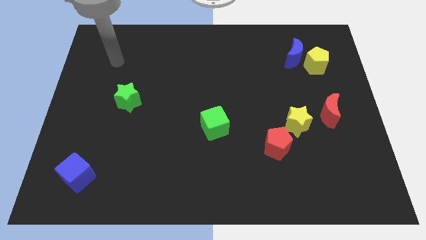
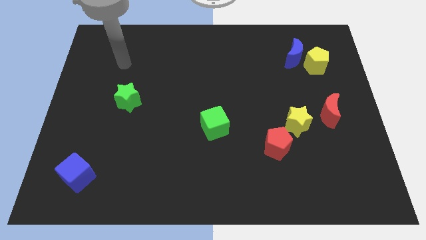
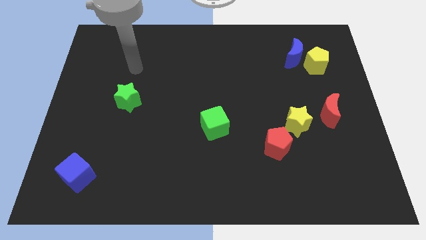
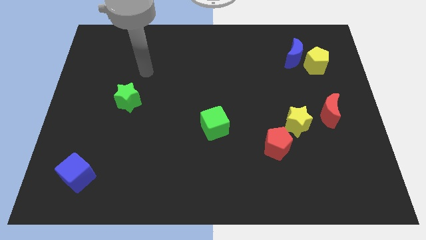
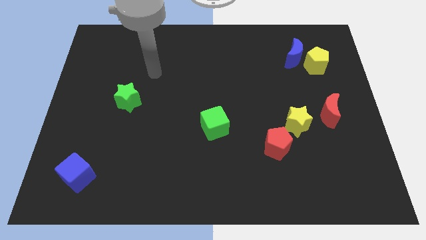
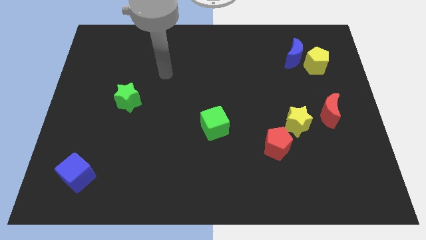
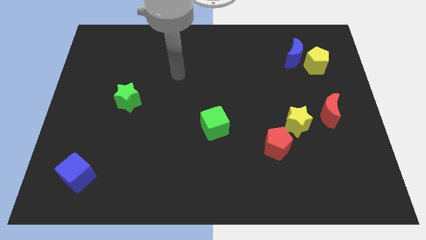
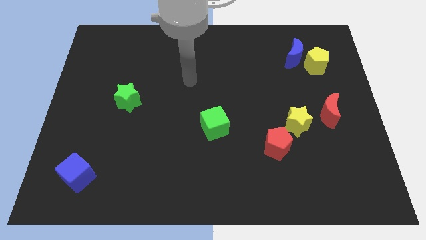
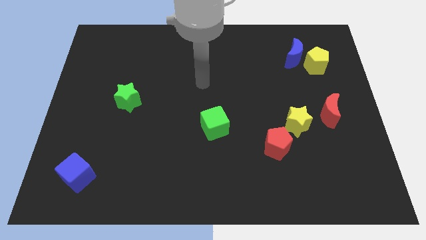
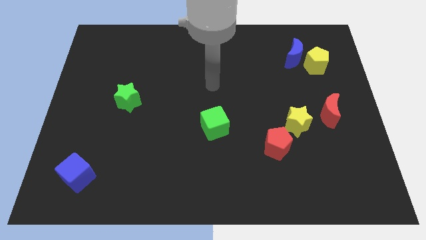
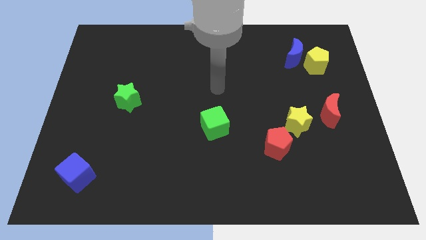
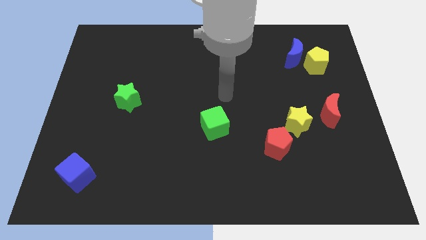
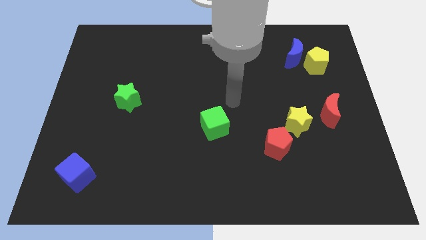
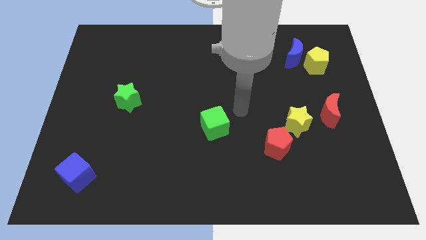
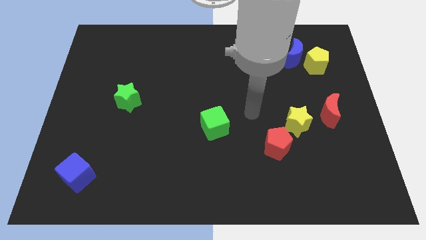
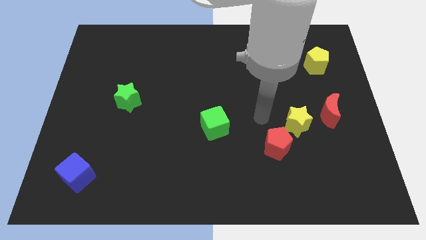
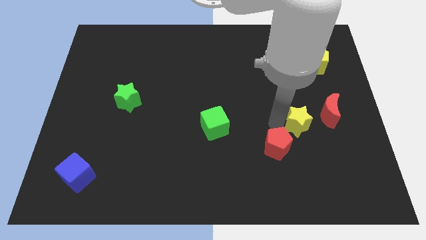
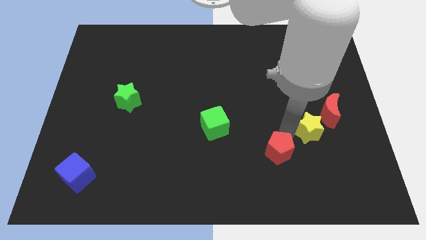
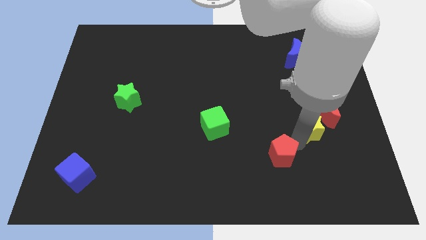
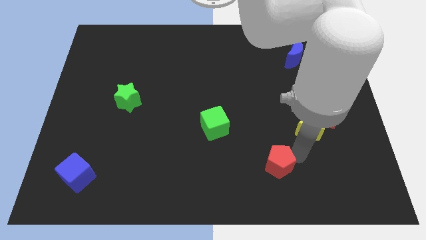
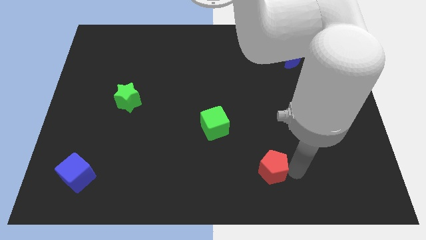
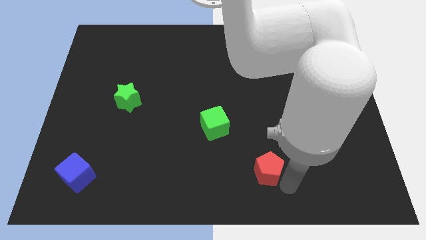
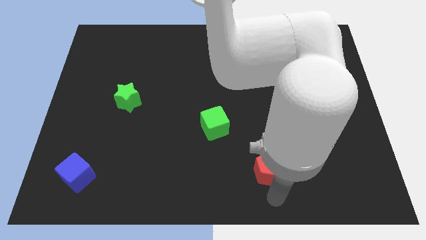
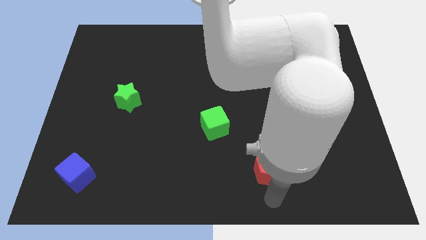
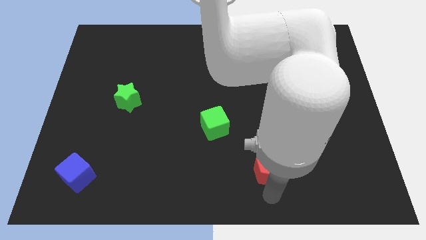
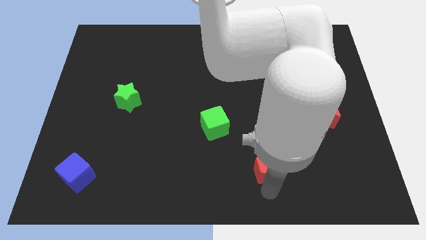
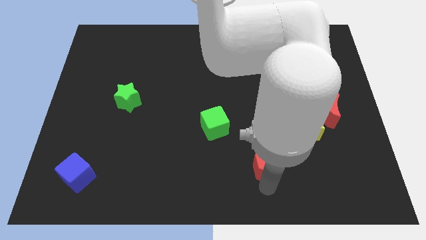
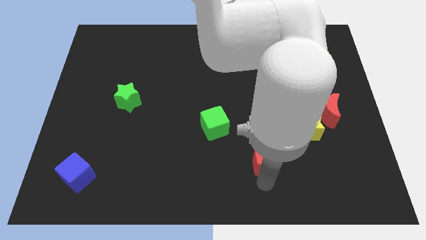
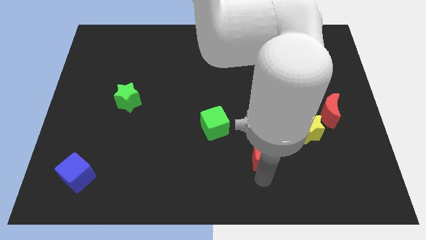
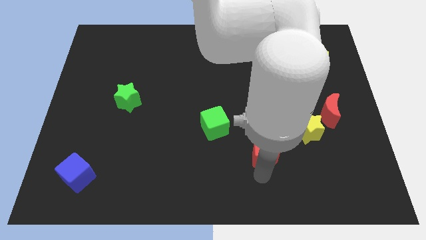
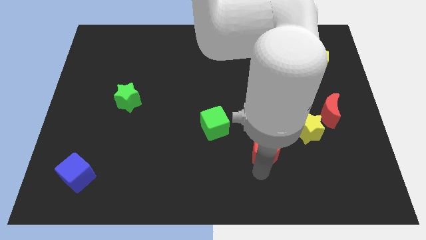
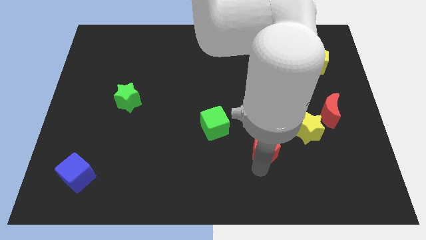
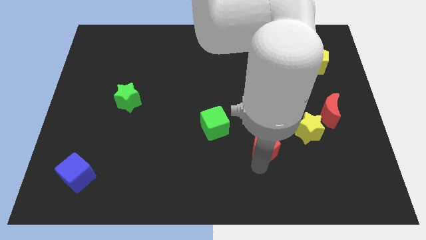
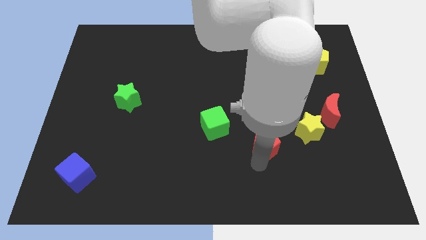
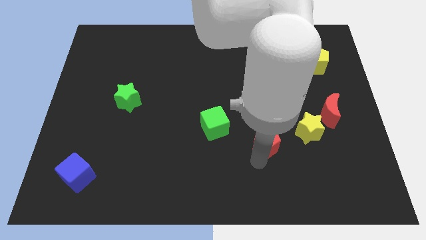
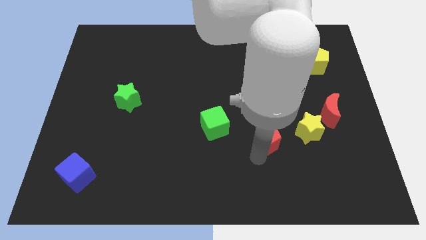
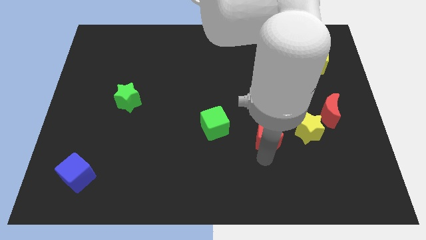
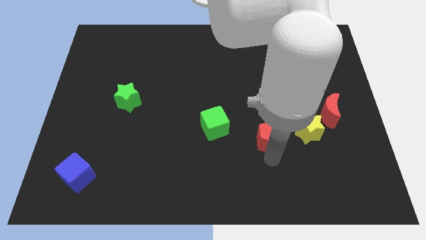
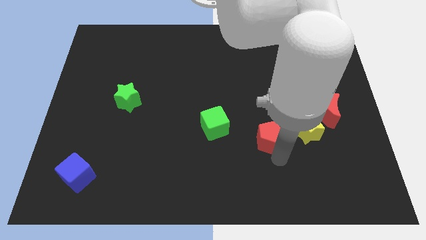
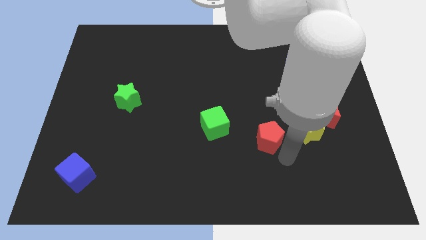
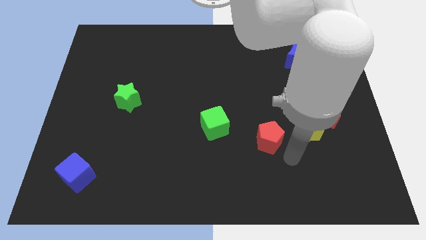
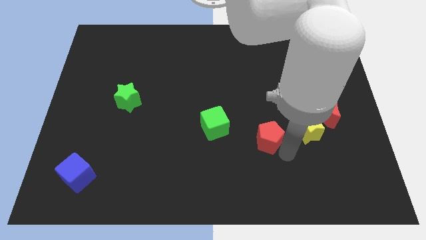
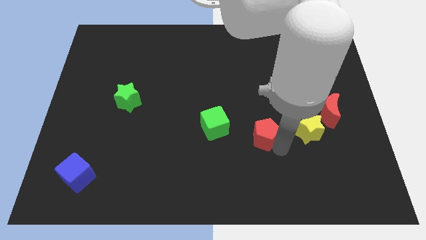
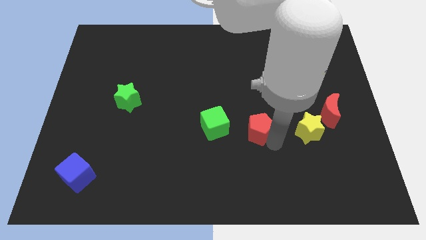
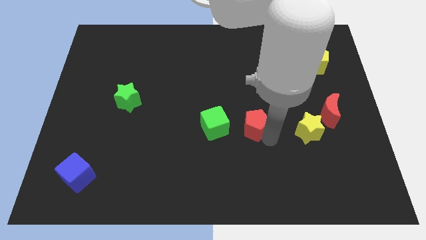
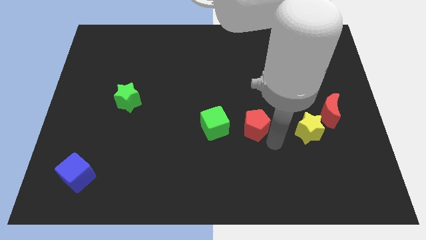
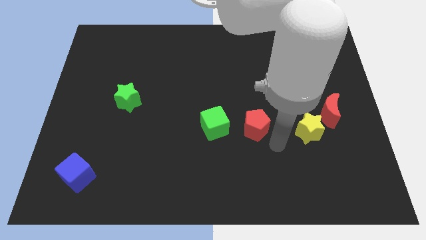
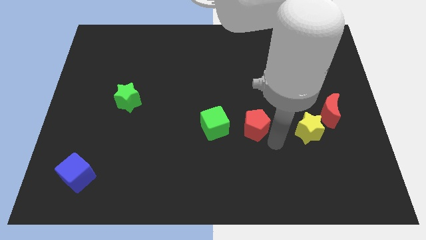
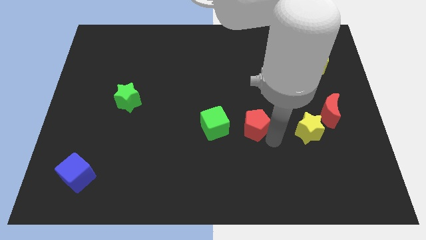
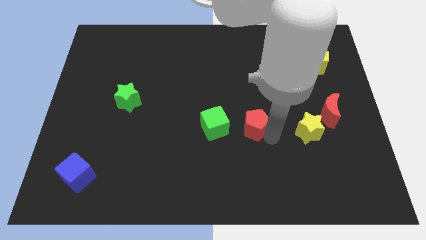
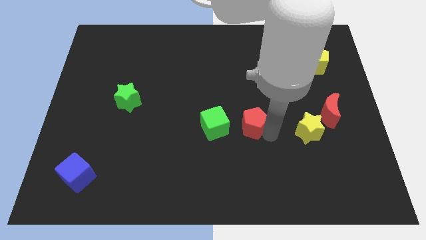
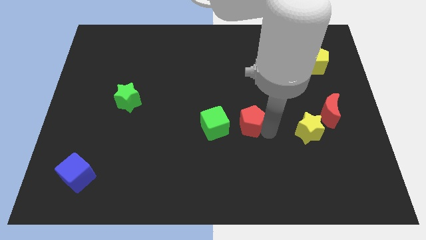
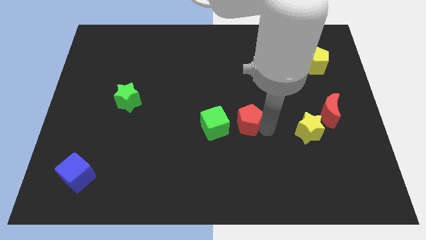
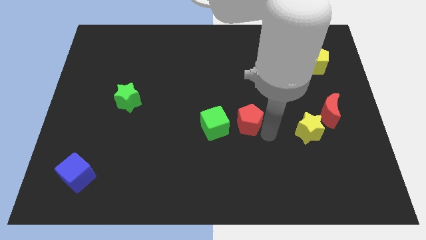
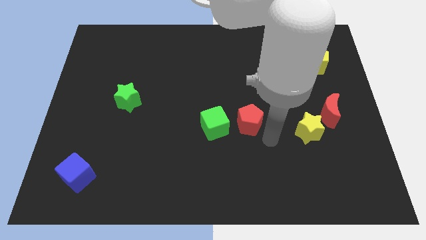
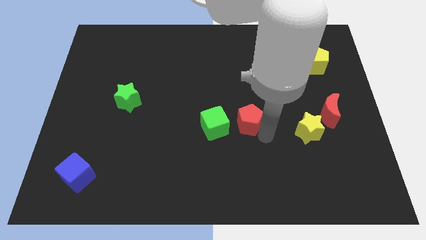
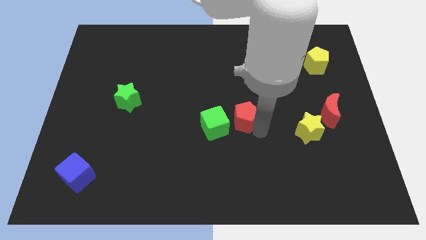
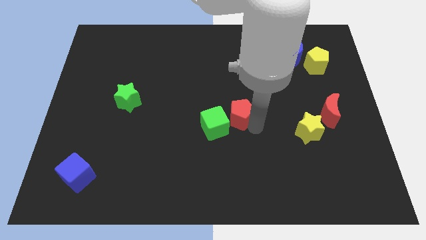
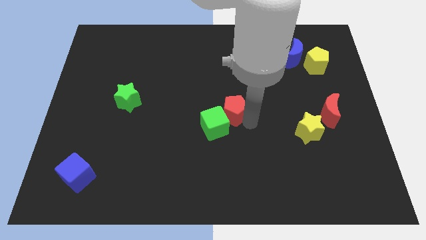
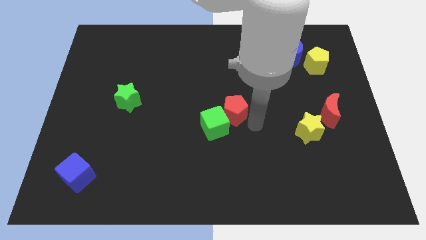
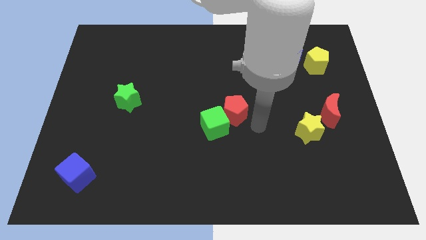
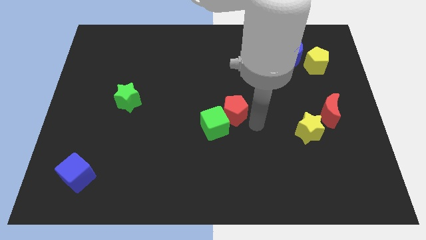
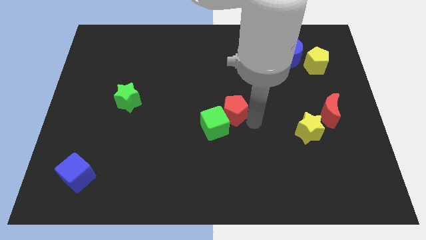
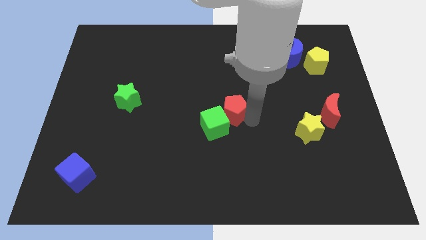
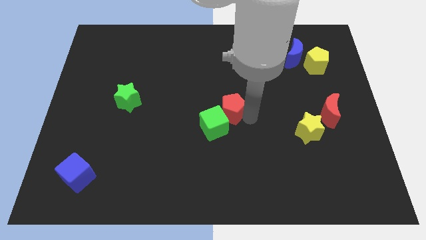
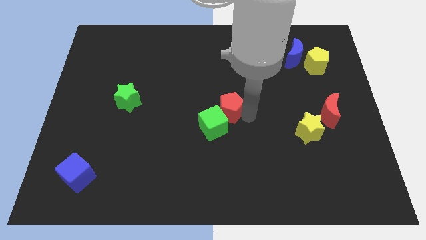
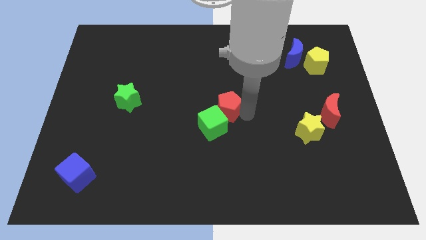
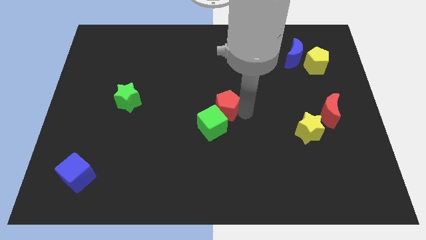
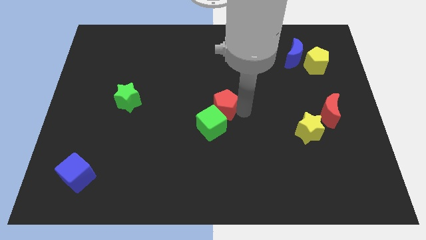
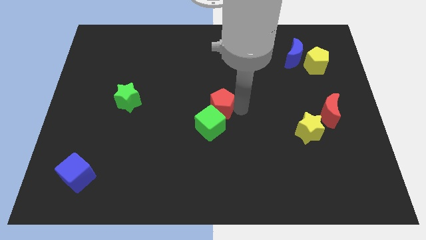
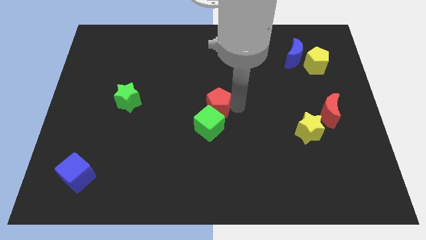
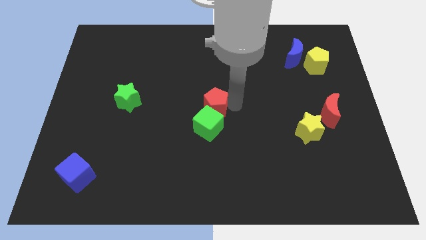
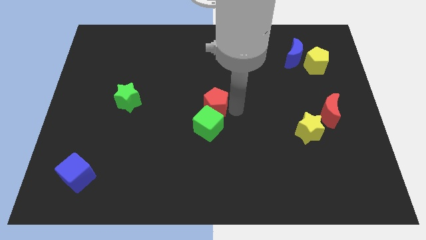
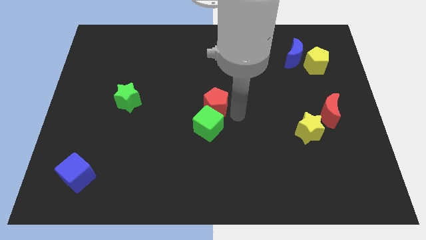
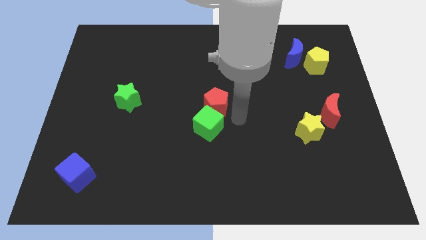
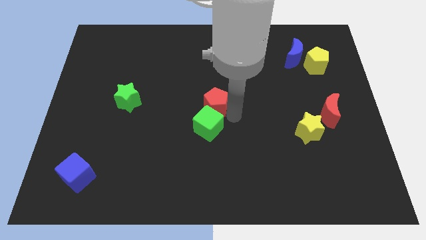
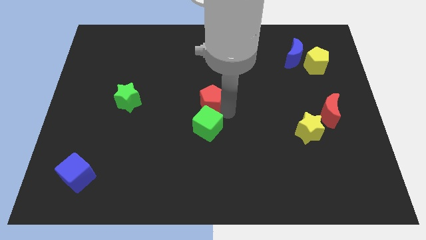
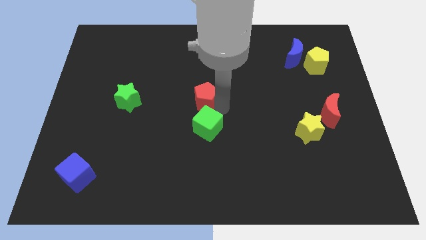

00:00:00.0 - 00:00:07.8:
push the red pentagon upwards and left

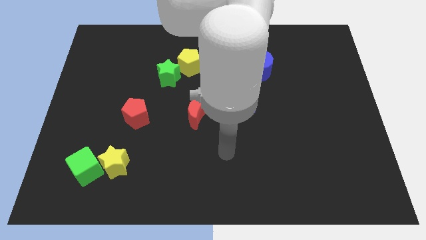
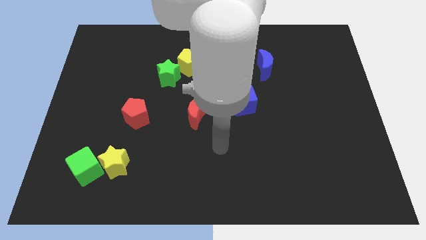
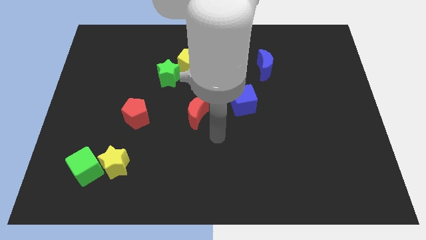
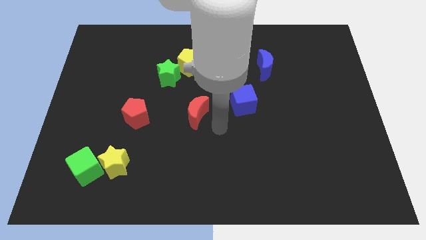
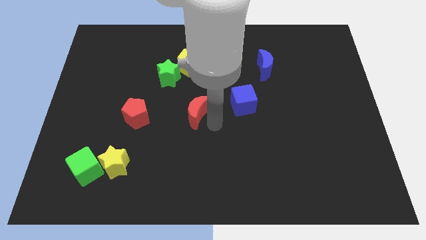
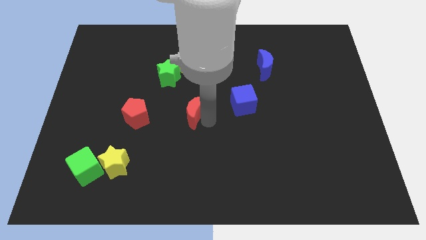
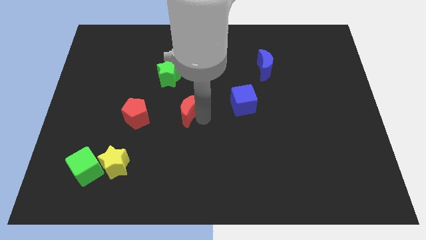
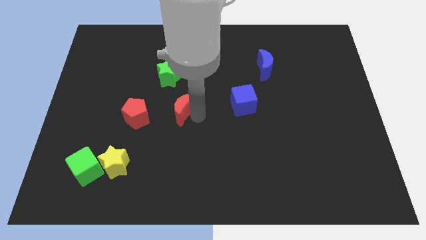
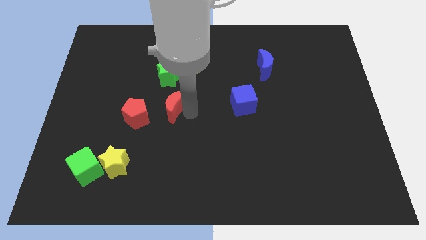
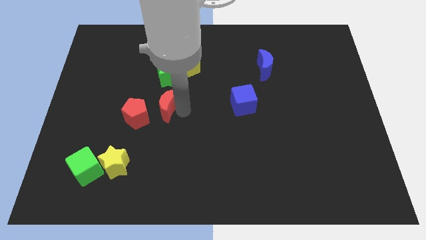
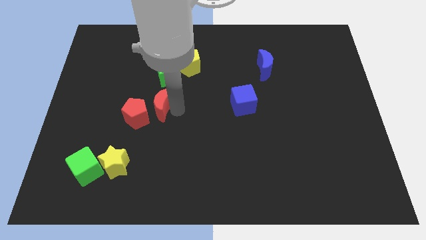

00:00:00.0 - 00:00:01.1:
push the red moon diagonally up and left a bit
